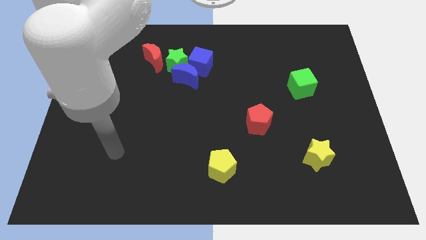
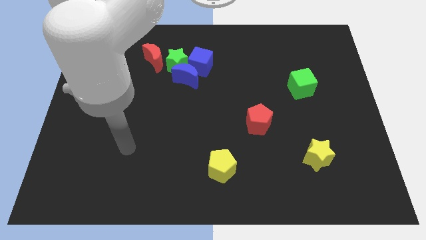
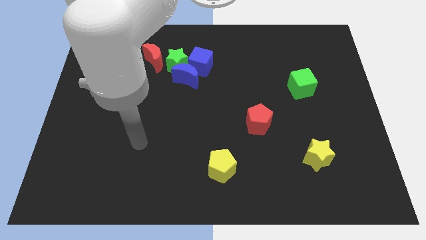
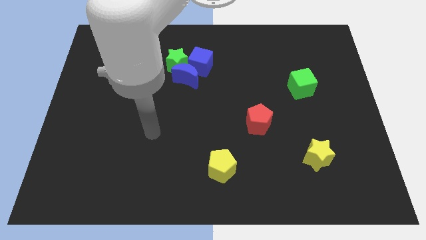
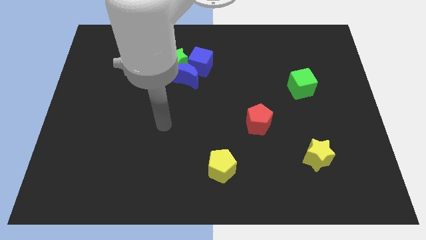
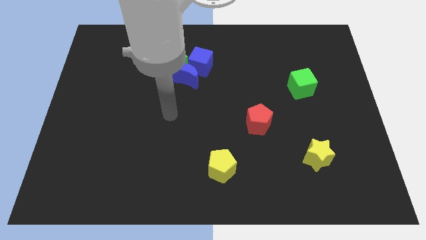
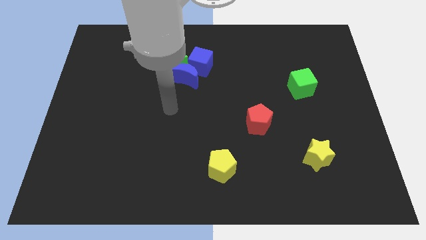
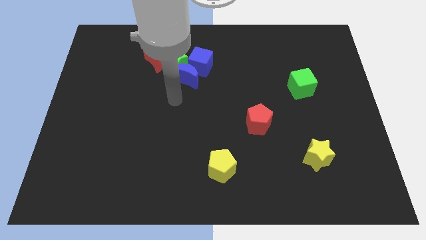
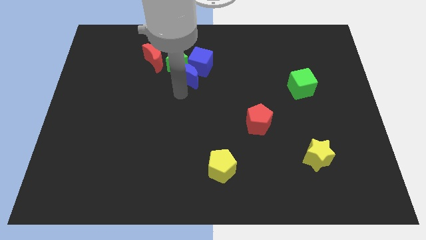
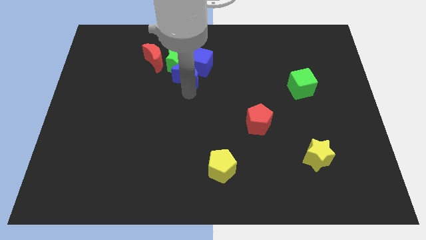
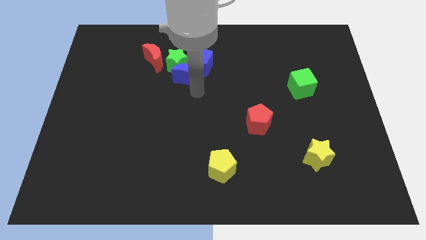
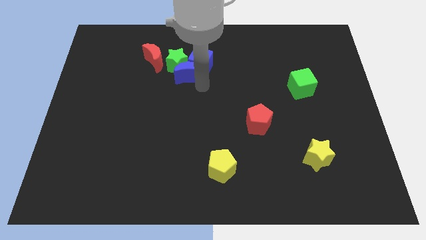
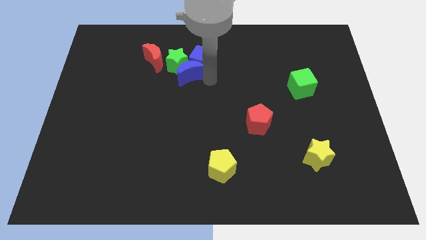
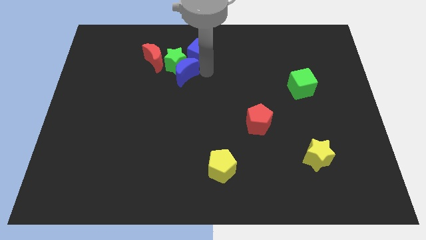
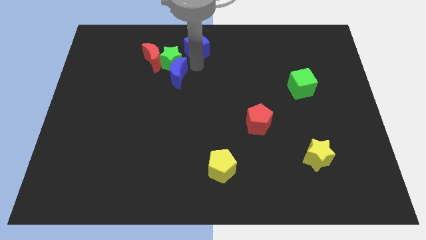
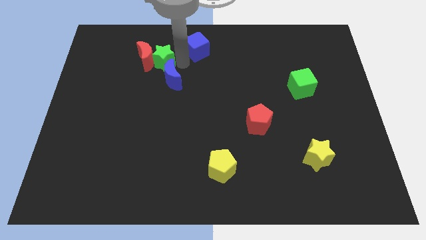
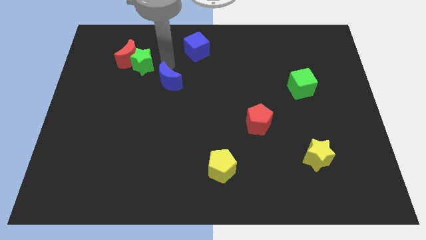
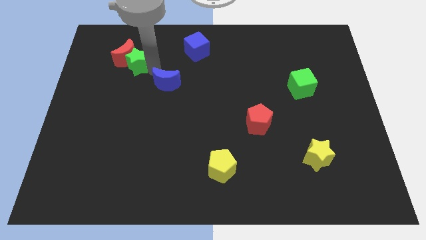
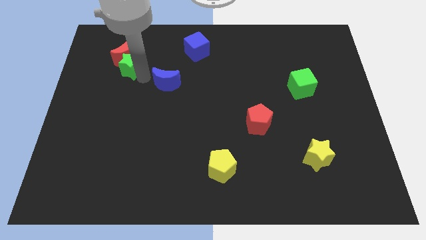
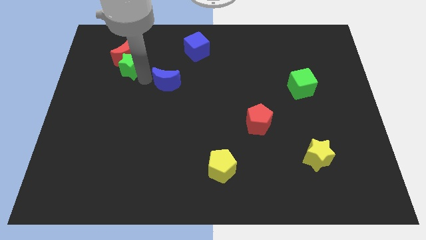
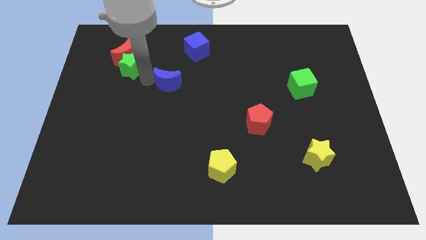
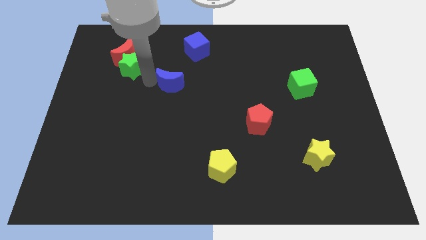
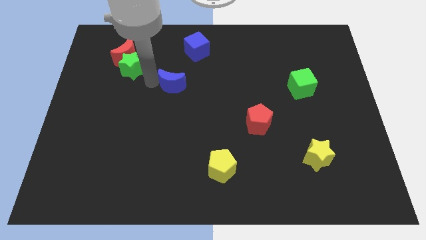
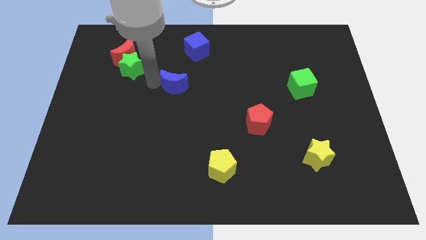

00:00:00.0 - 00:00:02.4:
move the blue moon away from the green star and blue cube

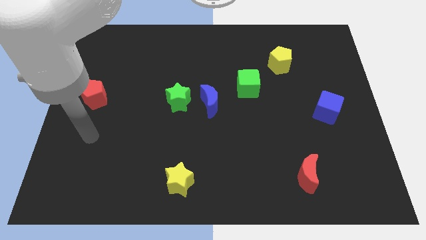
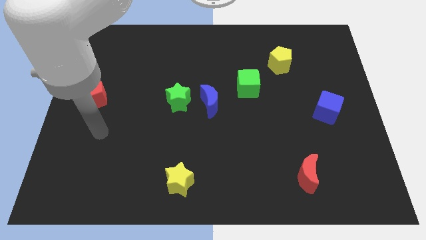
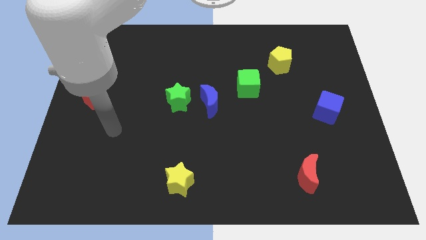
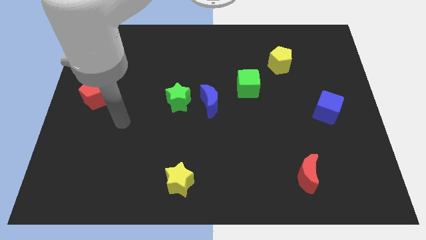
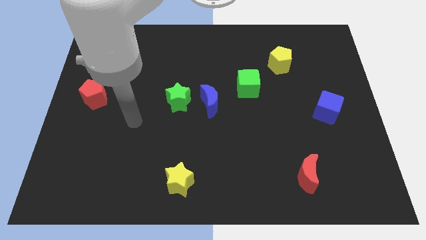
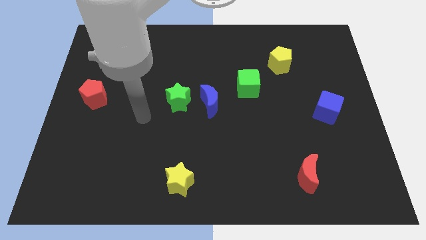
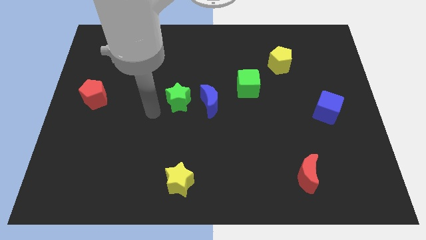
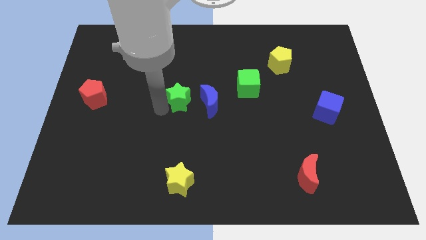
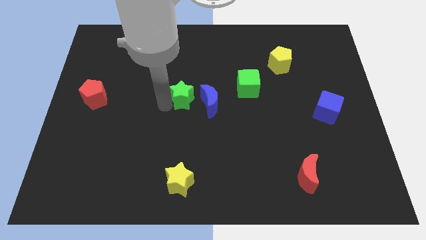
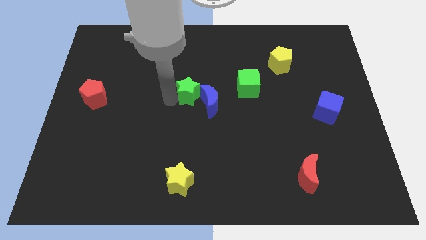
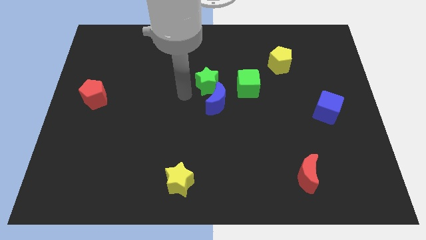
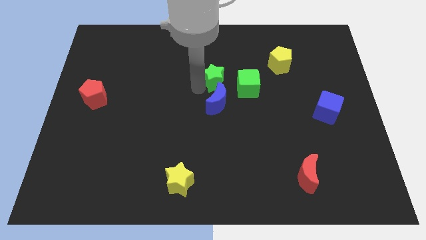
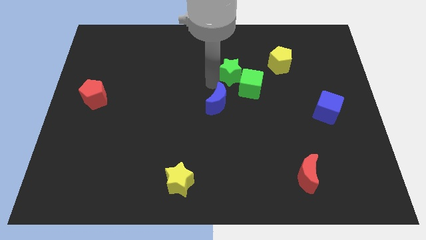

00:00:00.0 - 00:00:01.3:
pull the blue moon apart from the green star

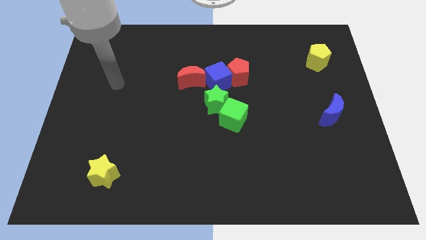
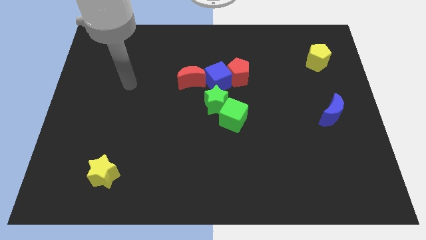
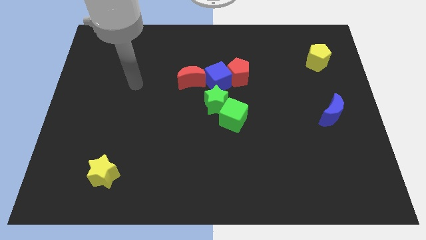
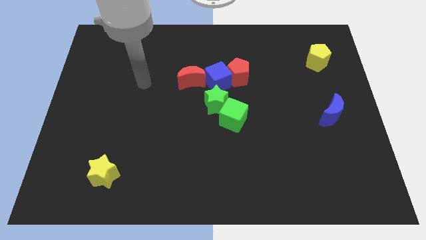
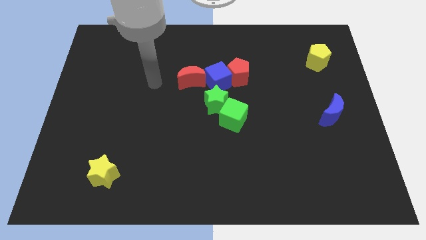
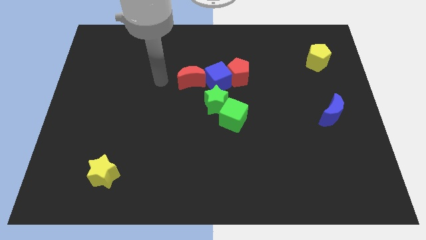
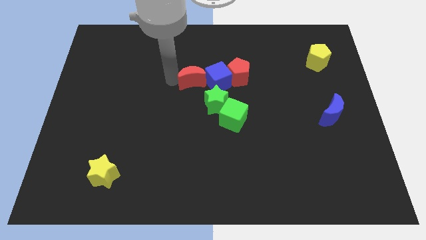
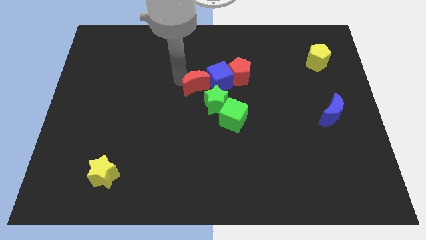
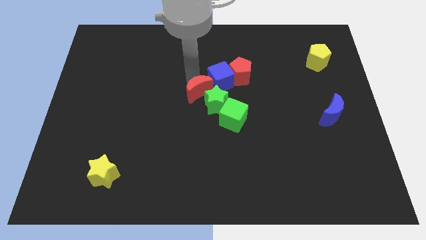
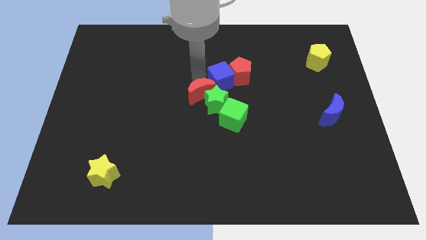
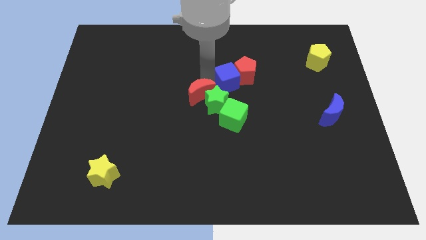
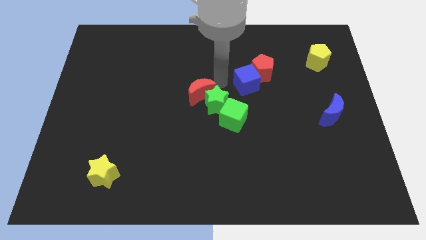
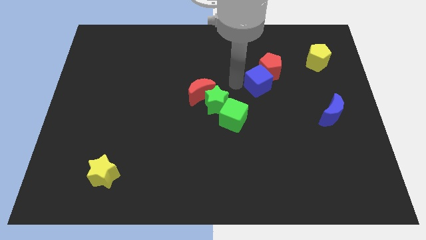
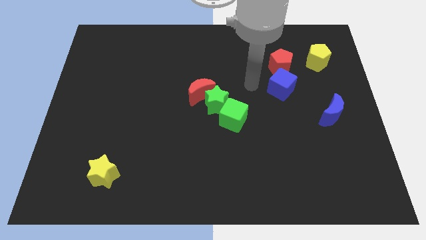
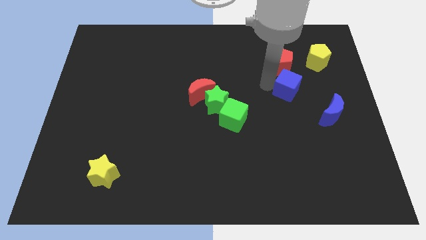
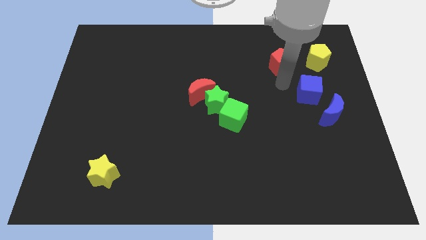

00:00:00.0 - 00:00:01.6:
separate the red pentagon from the blue cube

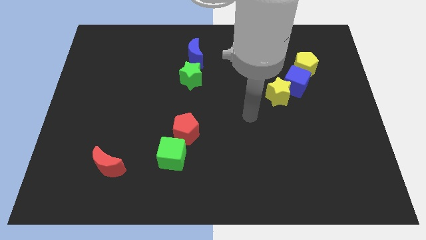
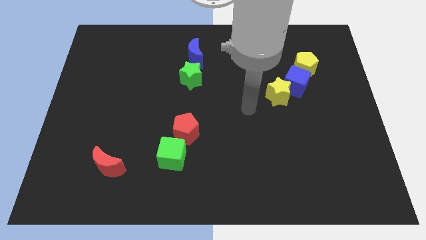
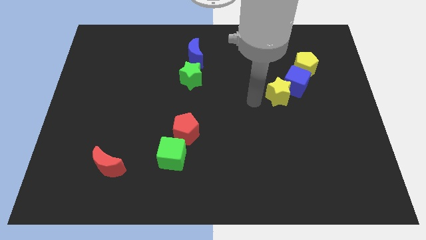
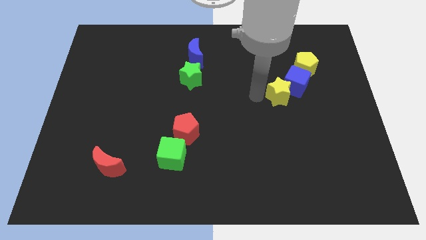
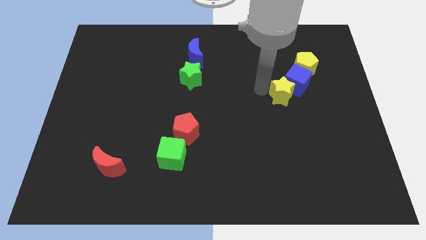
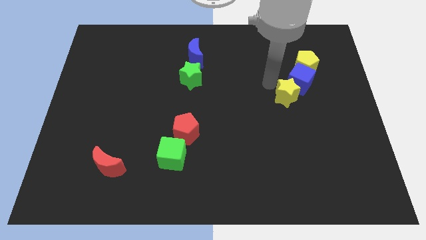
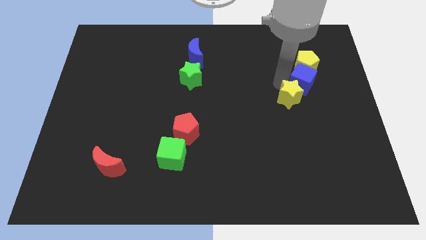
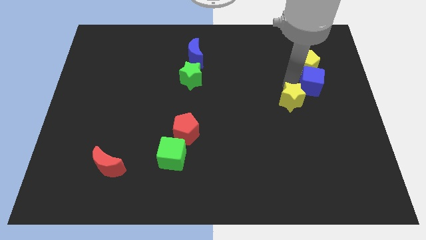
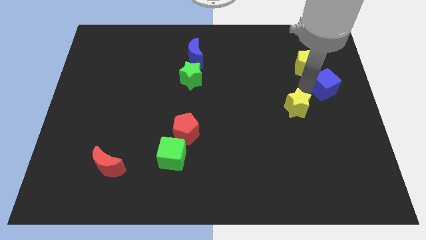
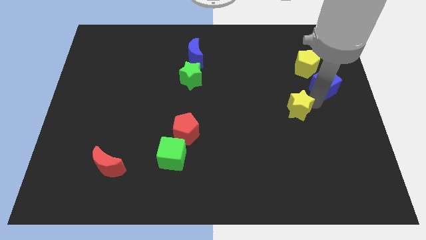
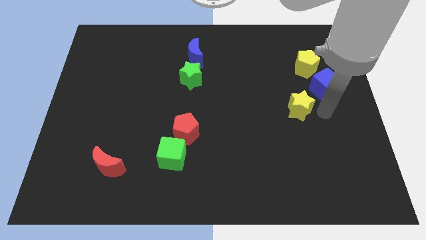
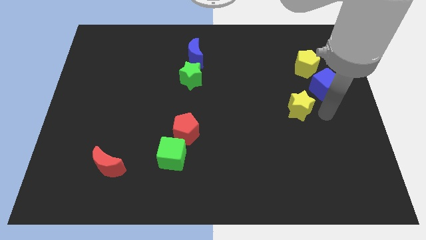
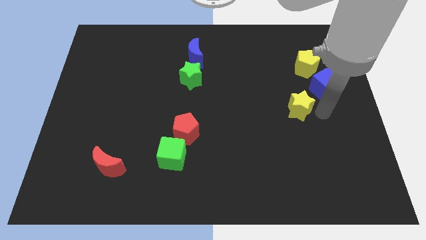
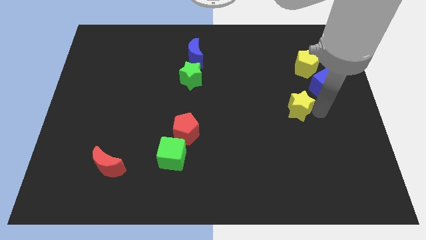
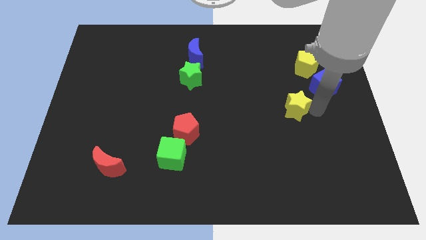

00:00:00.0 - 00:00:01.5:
separate the yellow star from the blue cube

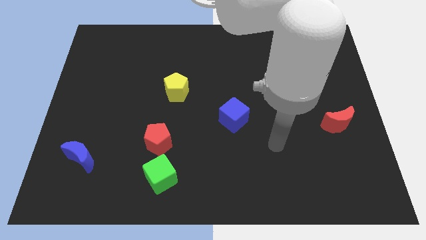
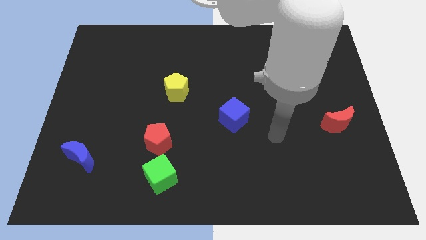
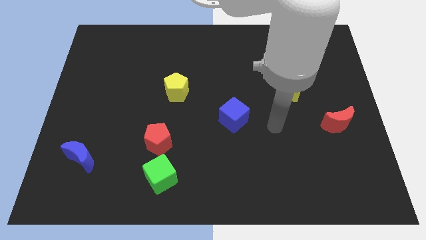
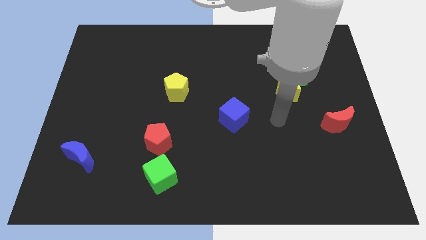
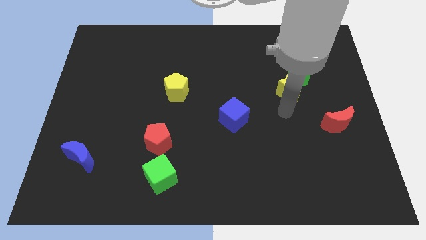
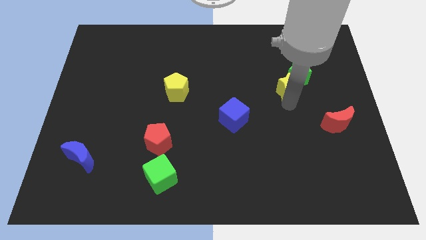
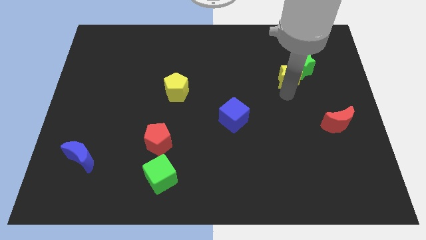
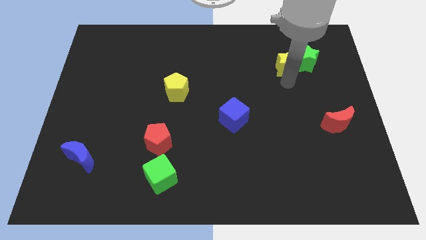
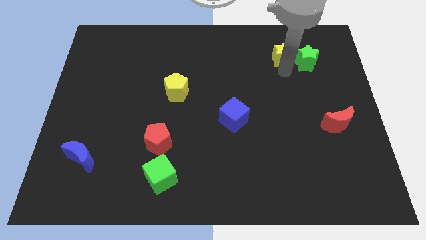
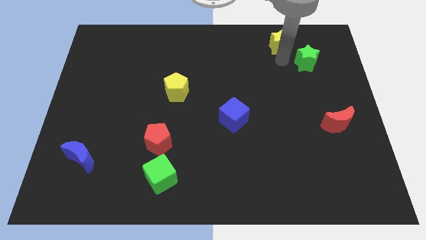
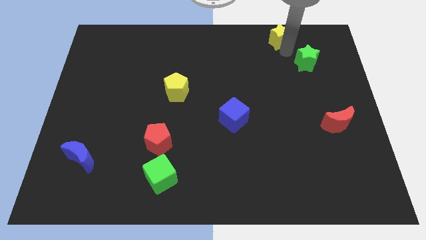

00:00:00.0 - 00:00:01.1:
pull the green star apart from the yellow star

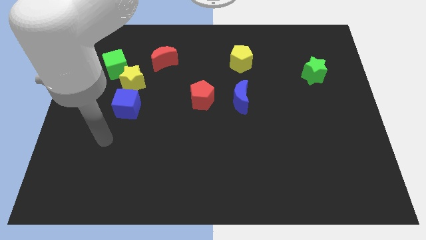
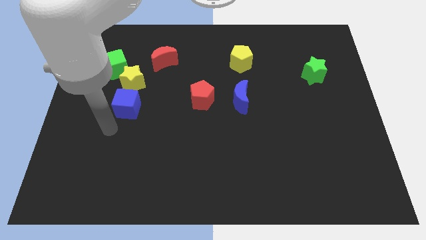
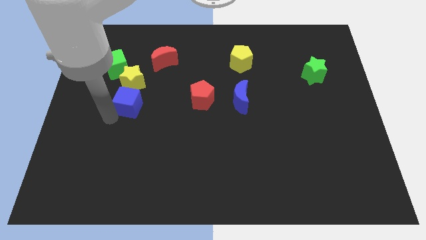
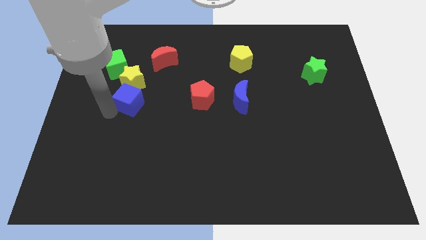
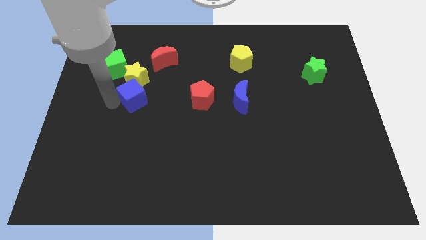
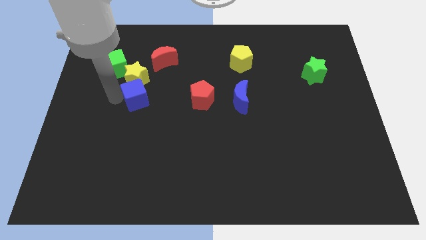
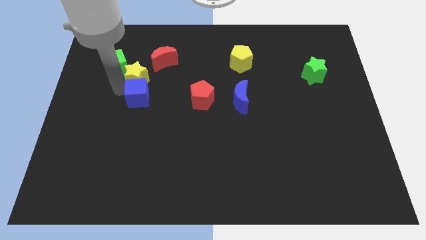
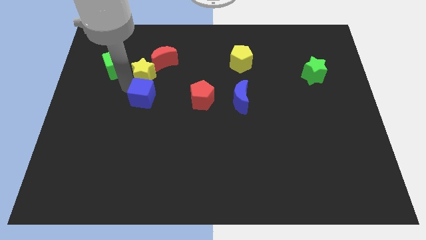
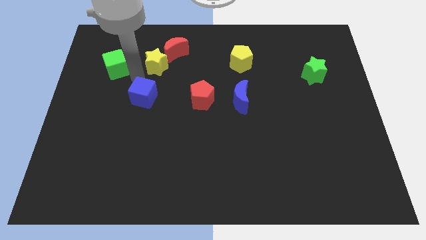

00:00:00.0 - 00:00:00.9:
move the green cube away from the yellow star

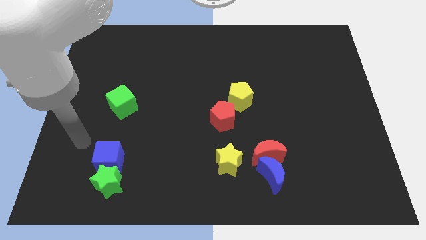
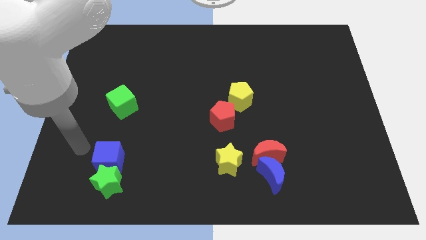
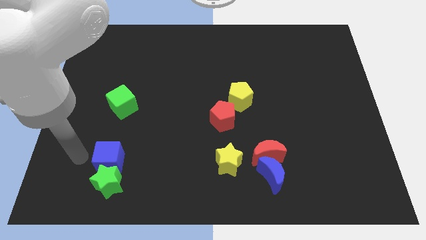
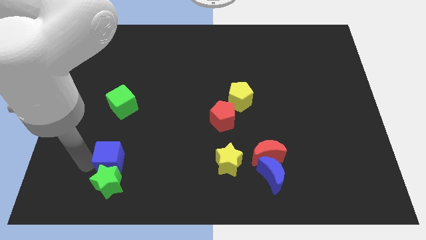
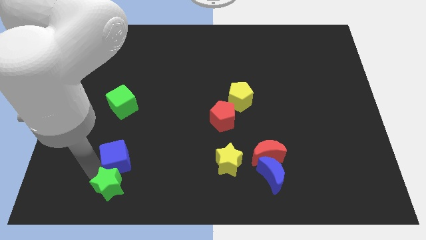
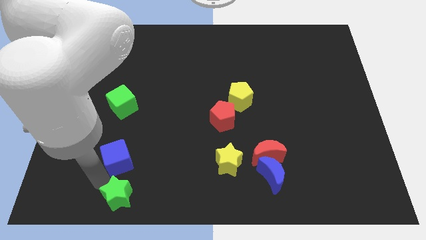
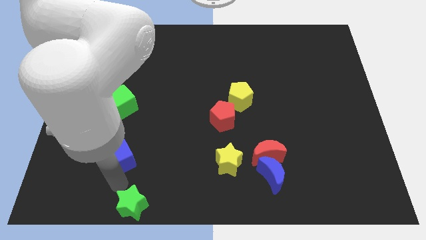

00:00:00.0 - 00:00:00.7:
pull the blue cube apart from the green star
